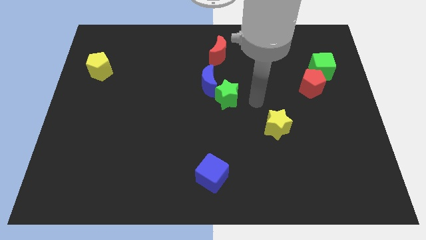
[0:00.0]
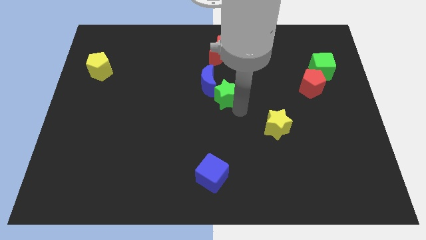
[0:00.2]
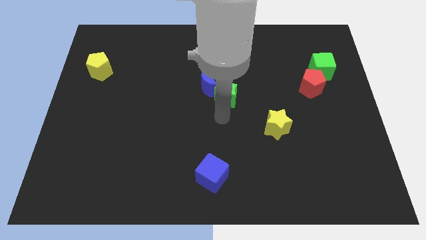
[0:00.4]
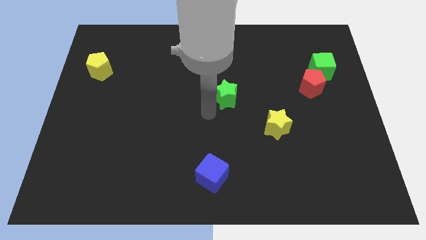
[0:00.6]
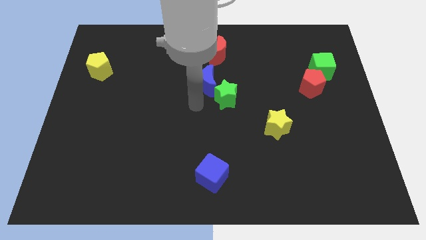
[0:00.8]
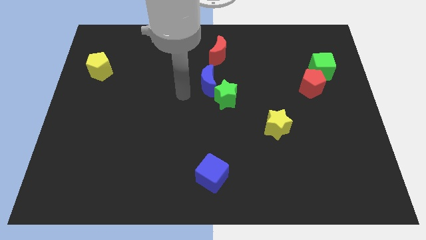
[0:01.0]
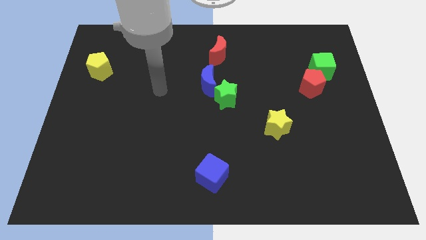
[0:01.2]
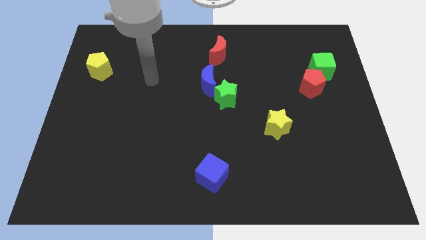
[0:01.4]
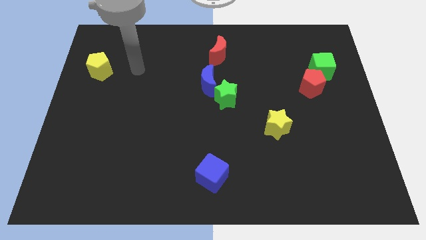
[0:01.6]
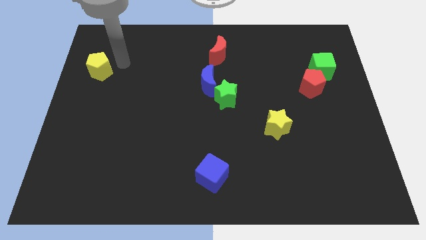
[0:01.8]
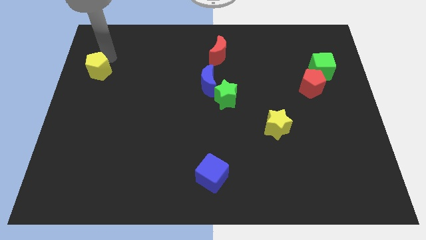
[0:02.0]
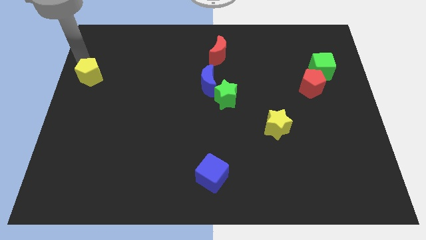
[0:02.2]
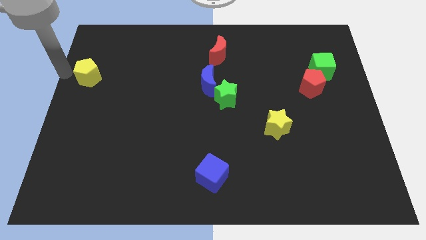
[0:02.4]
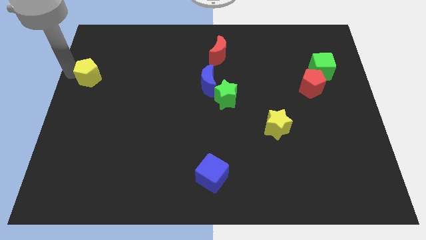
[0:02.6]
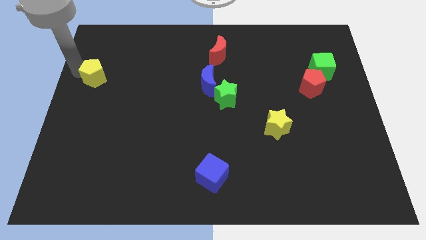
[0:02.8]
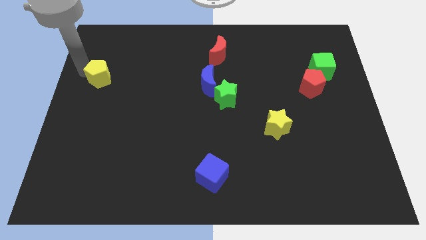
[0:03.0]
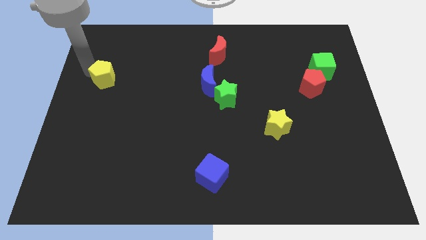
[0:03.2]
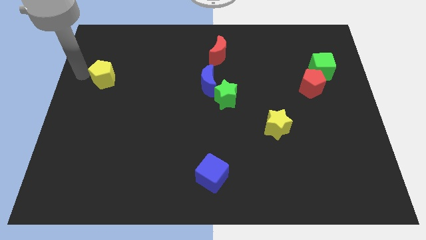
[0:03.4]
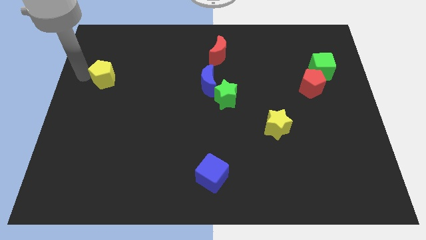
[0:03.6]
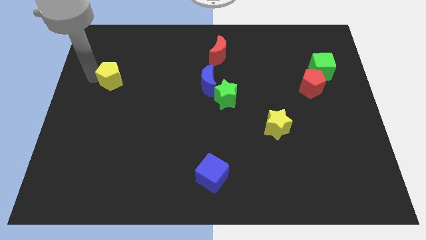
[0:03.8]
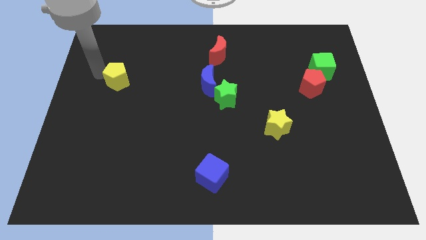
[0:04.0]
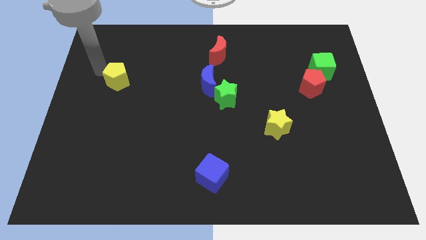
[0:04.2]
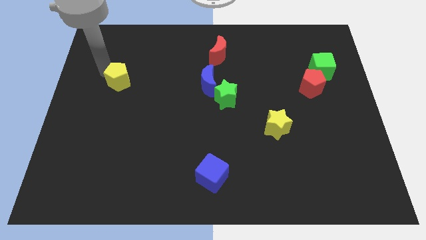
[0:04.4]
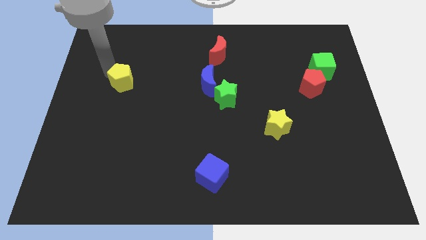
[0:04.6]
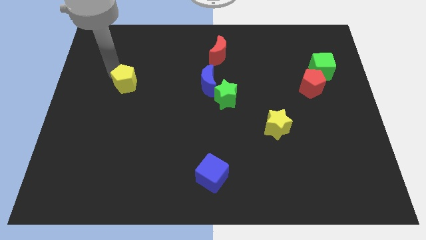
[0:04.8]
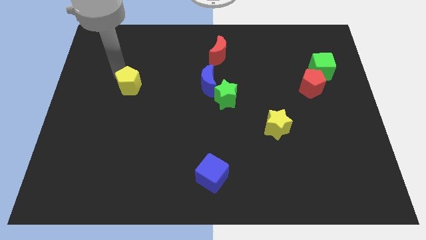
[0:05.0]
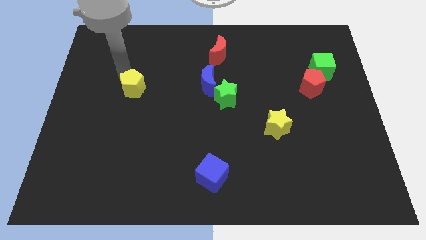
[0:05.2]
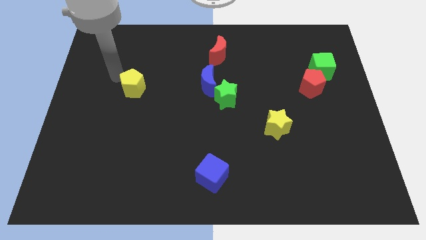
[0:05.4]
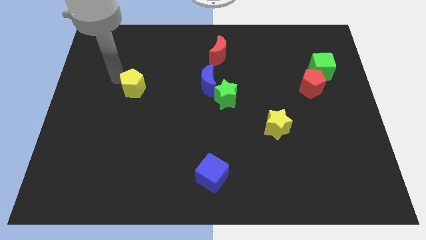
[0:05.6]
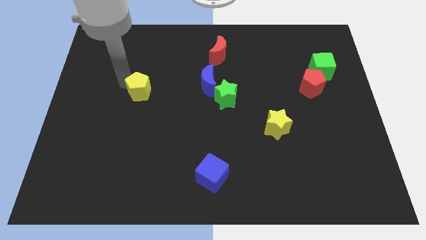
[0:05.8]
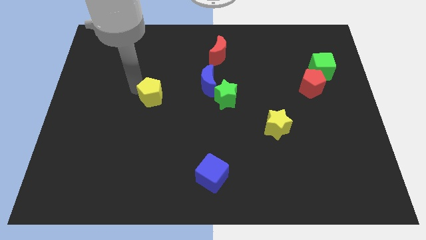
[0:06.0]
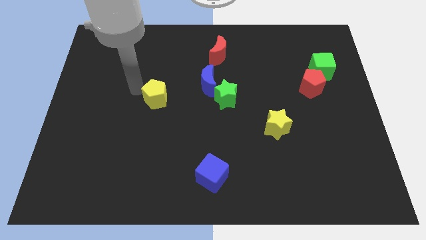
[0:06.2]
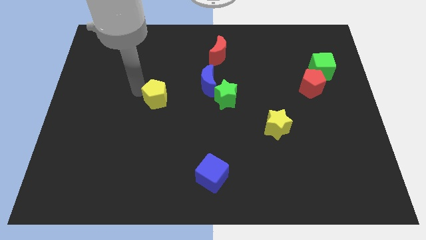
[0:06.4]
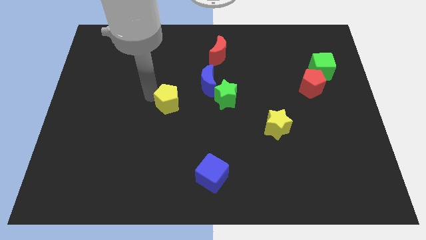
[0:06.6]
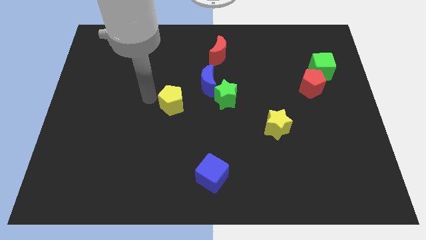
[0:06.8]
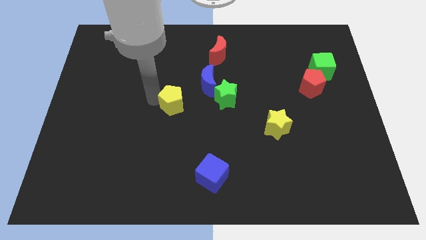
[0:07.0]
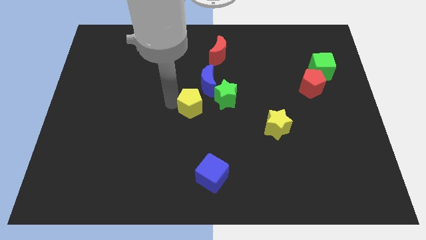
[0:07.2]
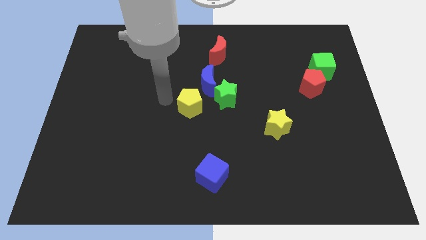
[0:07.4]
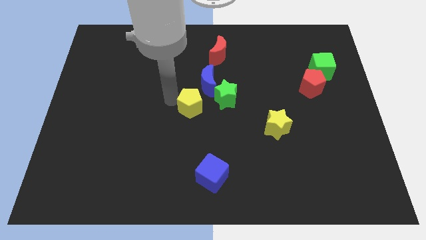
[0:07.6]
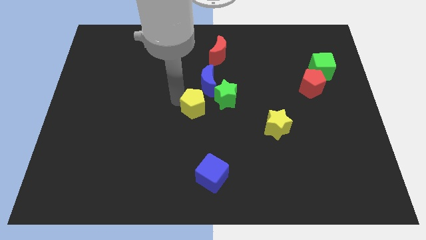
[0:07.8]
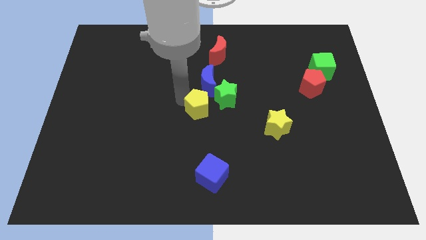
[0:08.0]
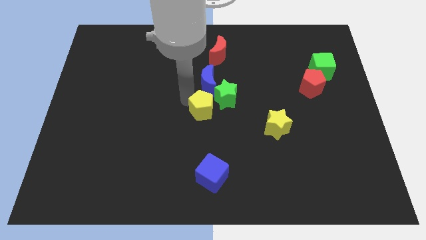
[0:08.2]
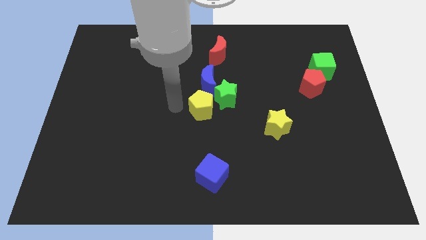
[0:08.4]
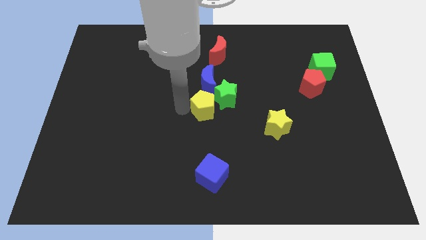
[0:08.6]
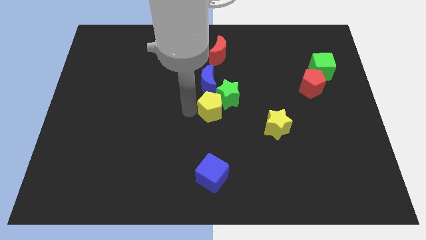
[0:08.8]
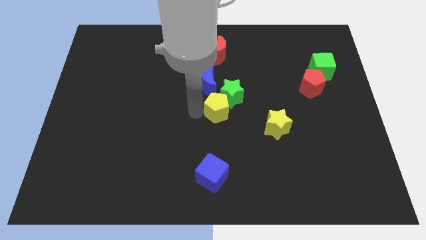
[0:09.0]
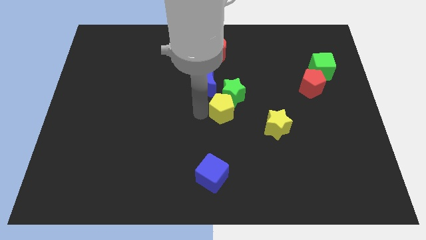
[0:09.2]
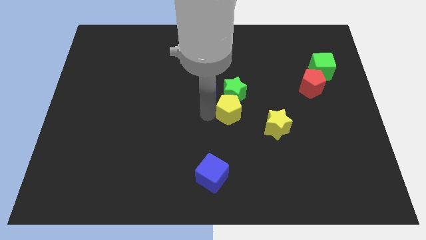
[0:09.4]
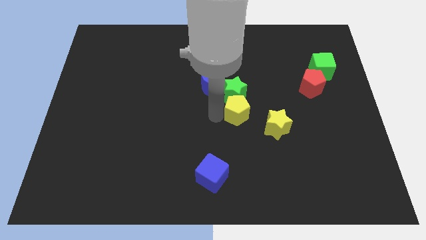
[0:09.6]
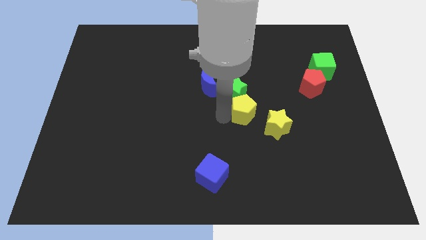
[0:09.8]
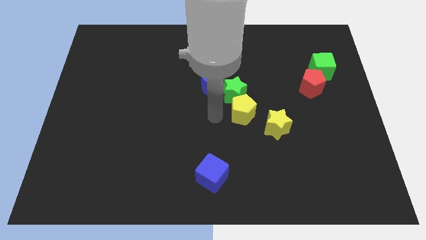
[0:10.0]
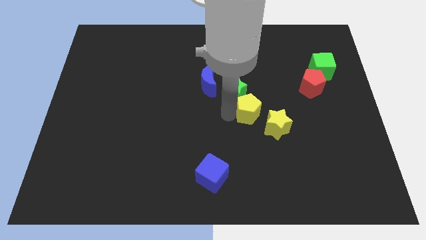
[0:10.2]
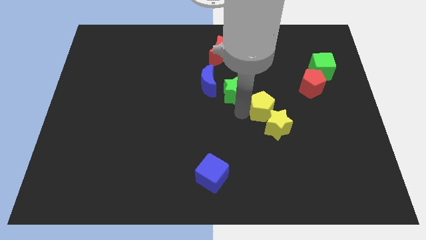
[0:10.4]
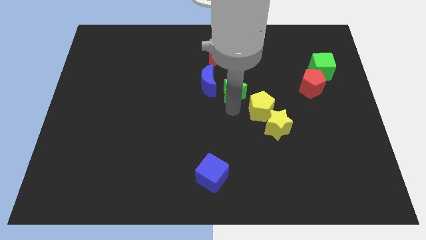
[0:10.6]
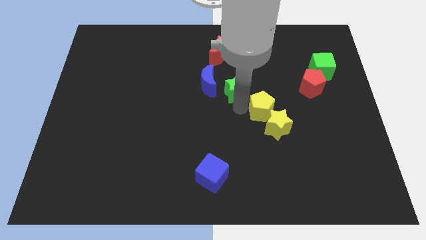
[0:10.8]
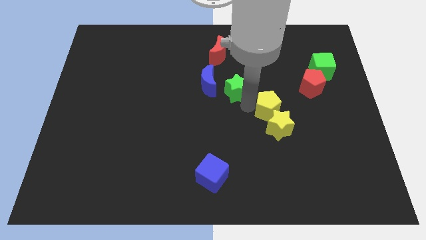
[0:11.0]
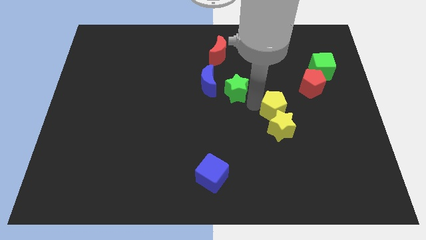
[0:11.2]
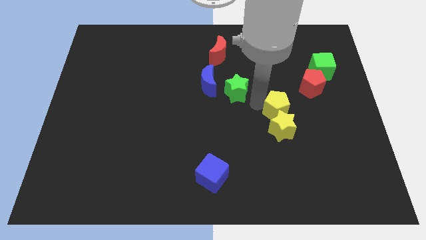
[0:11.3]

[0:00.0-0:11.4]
put the yellow pentagon diagonally up and to the right of the yellow star

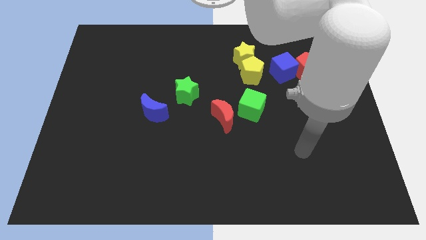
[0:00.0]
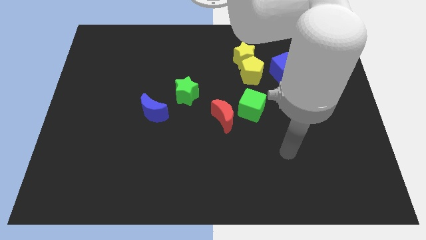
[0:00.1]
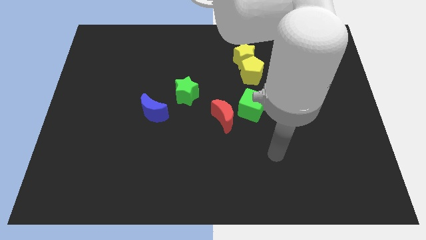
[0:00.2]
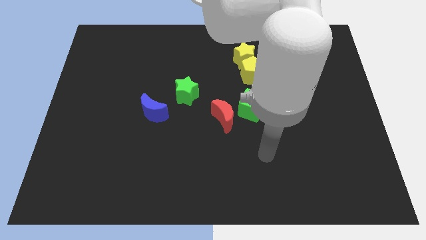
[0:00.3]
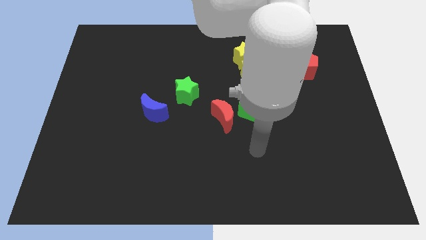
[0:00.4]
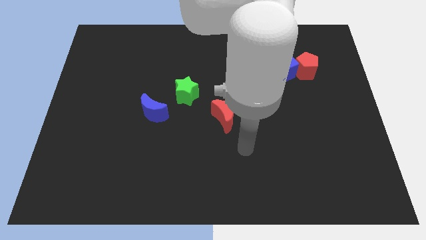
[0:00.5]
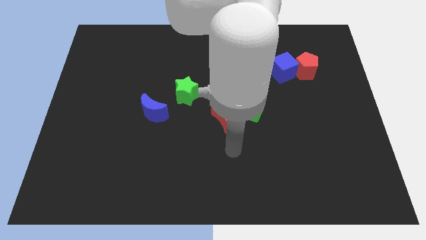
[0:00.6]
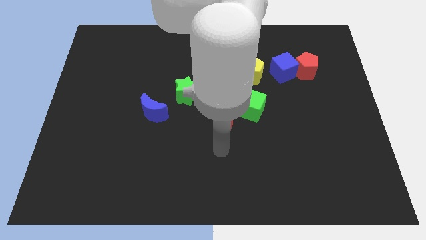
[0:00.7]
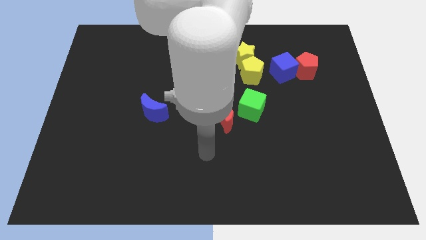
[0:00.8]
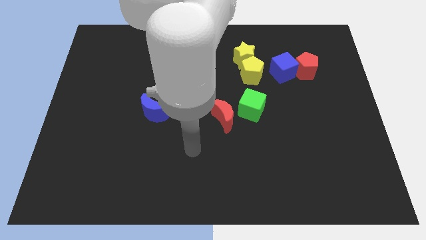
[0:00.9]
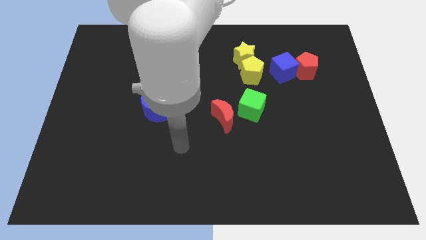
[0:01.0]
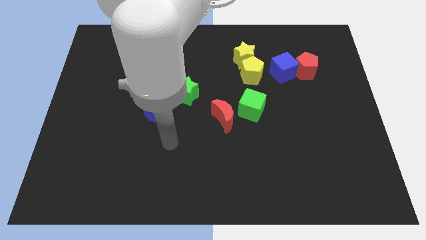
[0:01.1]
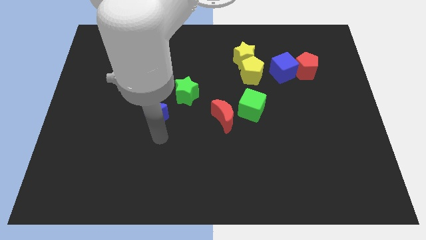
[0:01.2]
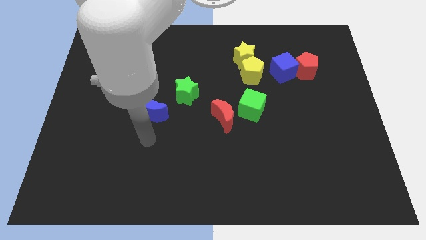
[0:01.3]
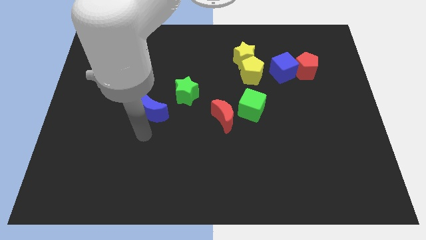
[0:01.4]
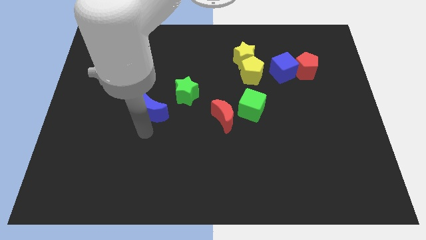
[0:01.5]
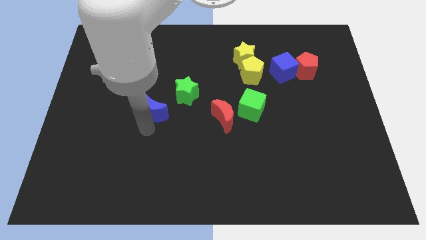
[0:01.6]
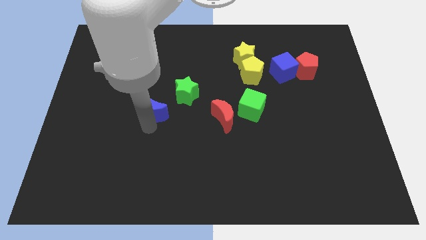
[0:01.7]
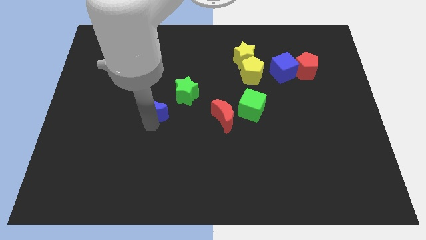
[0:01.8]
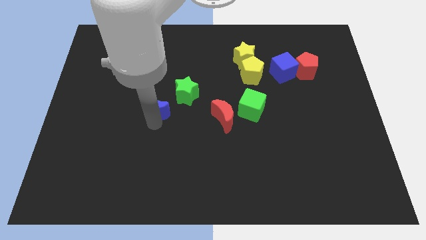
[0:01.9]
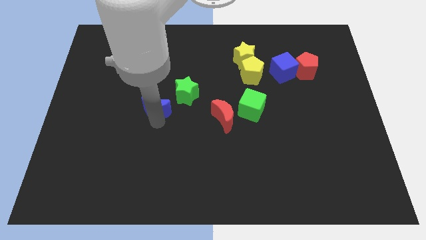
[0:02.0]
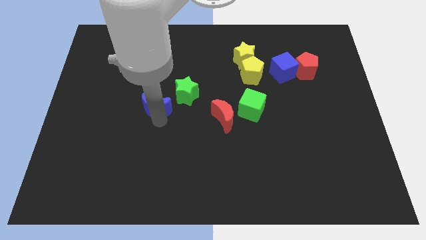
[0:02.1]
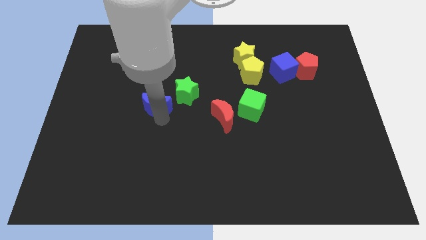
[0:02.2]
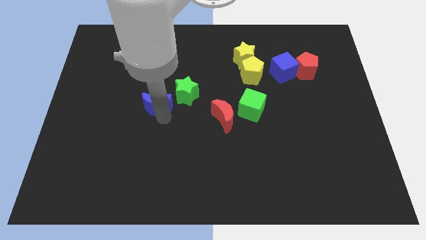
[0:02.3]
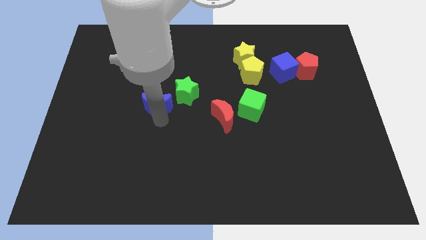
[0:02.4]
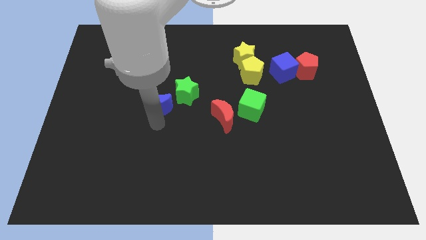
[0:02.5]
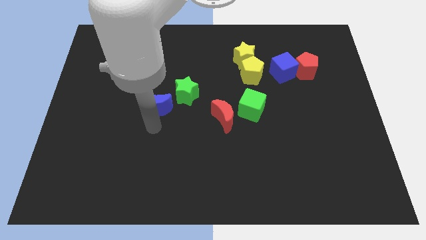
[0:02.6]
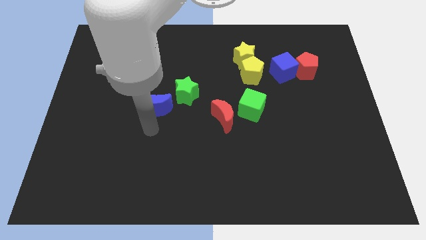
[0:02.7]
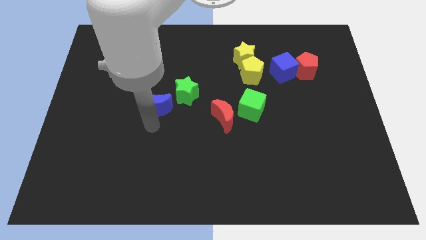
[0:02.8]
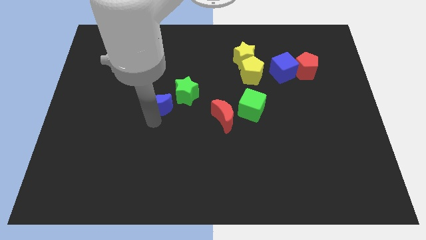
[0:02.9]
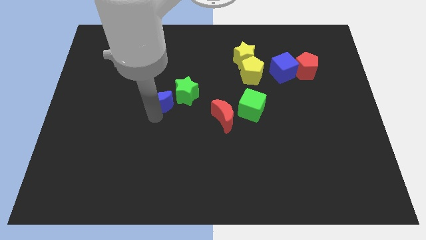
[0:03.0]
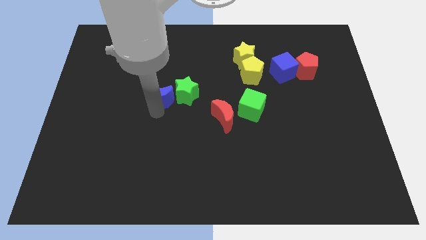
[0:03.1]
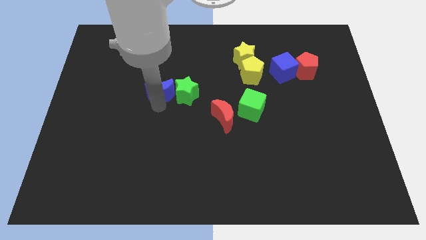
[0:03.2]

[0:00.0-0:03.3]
move the blue moon to the top left side of the green star
